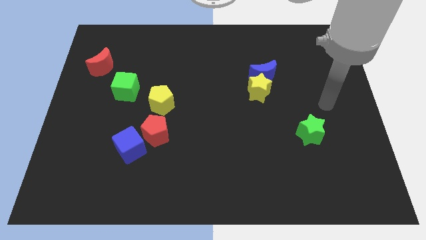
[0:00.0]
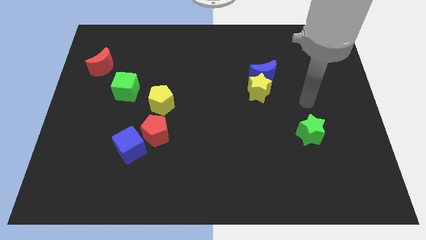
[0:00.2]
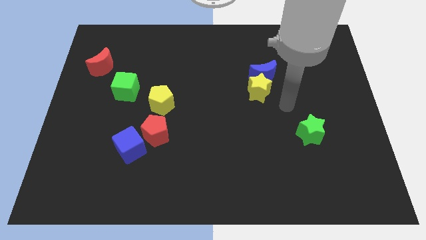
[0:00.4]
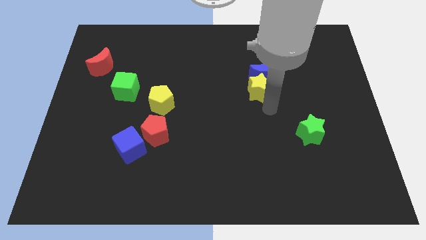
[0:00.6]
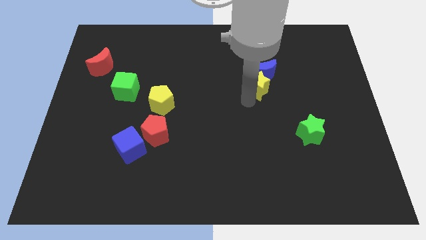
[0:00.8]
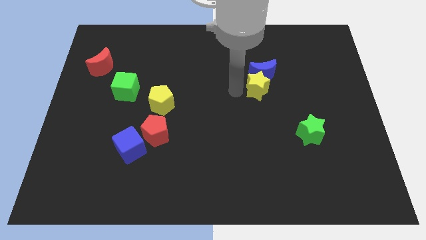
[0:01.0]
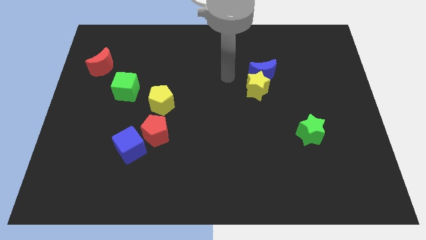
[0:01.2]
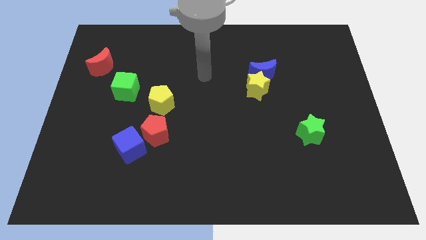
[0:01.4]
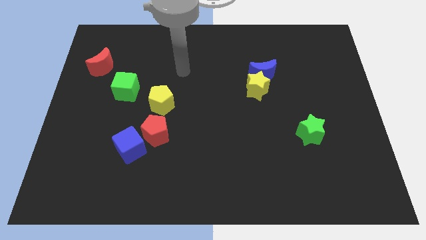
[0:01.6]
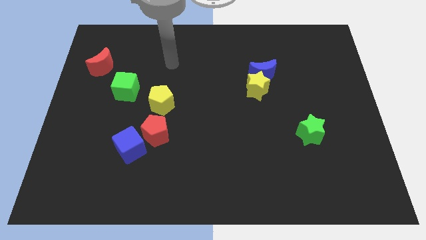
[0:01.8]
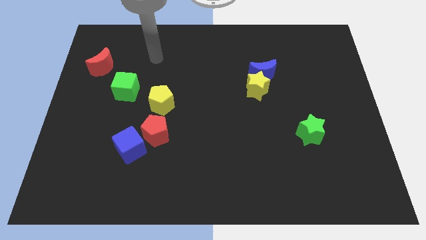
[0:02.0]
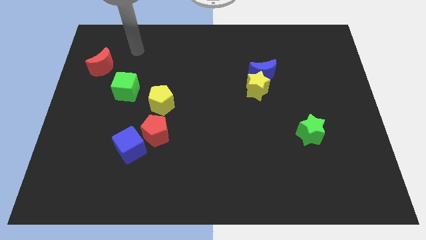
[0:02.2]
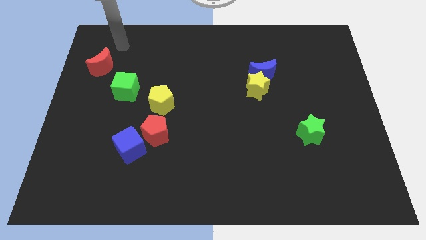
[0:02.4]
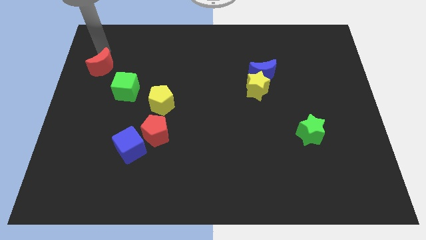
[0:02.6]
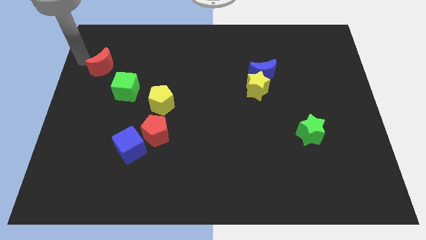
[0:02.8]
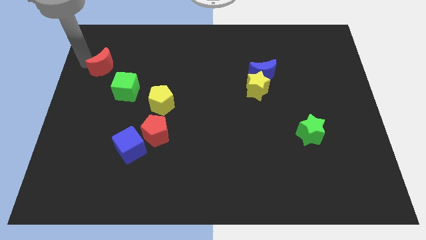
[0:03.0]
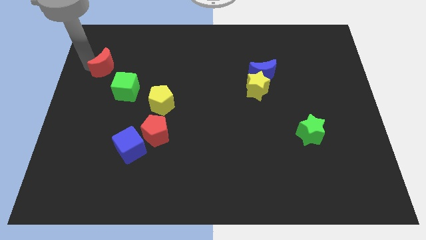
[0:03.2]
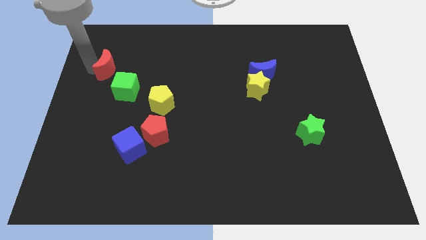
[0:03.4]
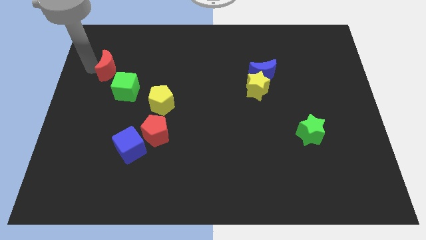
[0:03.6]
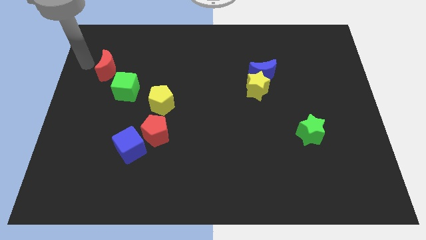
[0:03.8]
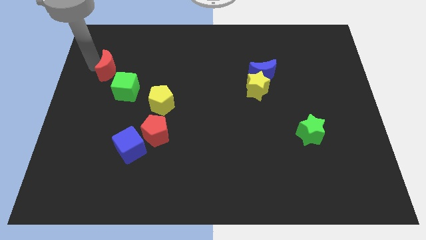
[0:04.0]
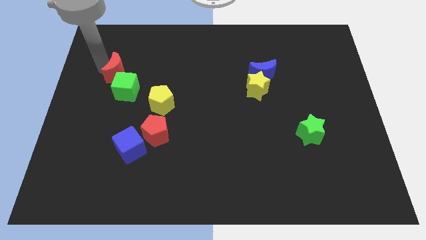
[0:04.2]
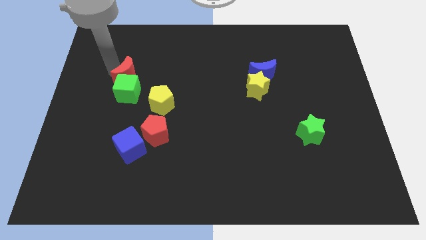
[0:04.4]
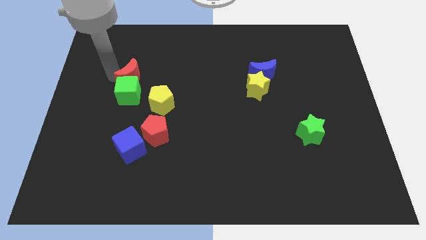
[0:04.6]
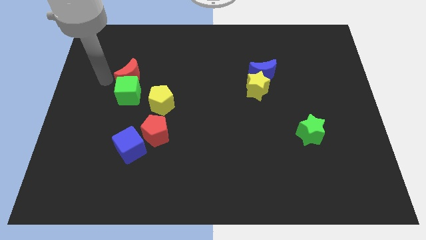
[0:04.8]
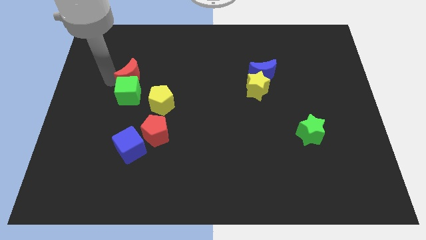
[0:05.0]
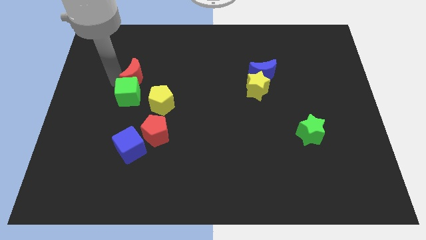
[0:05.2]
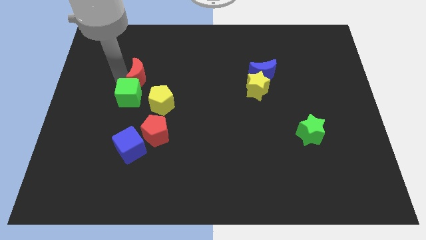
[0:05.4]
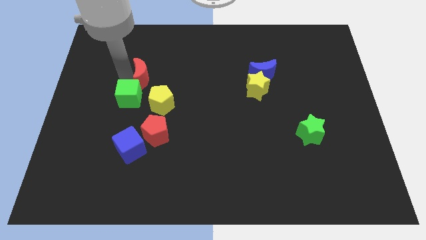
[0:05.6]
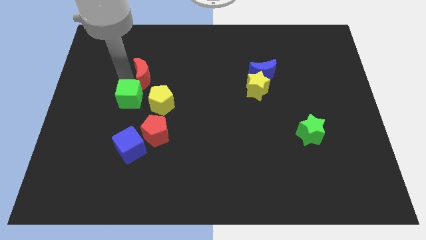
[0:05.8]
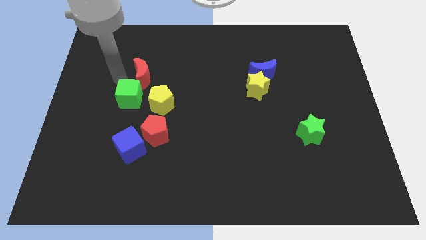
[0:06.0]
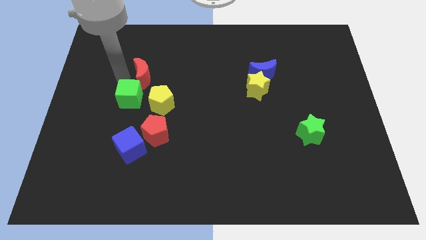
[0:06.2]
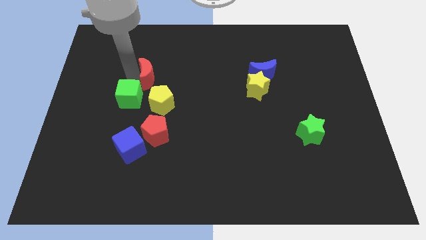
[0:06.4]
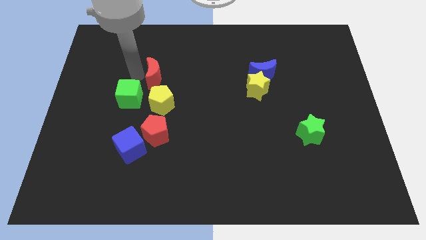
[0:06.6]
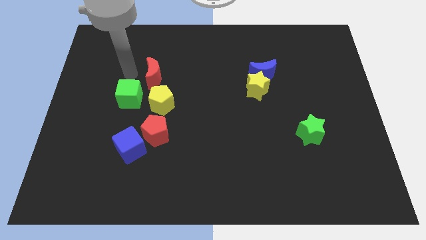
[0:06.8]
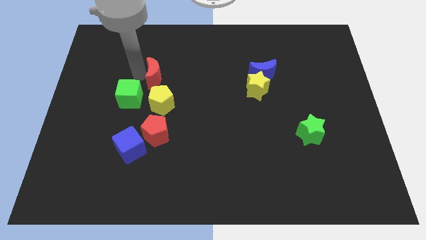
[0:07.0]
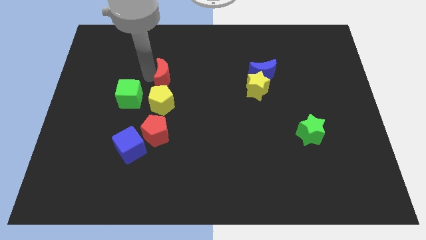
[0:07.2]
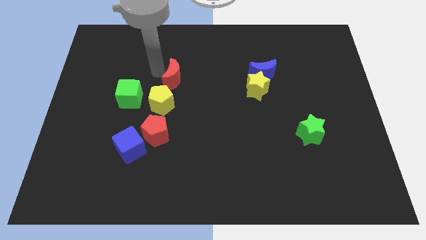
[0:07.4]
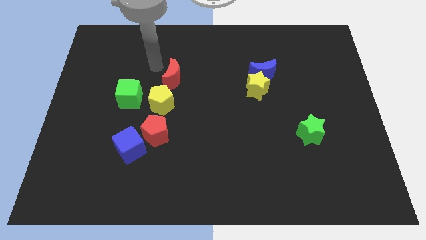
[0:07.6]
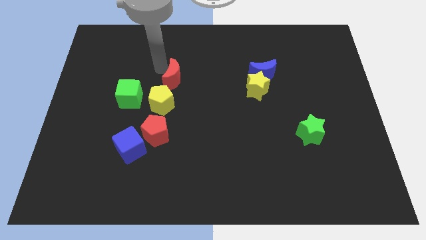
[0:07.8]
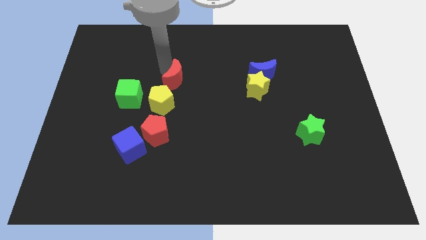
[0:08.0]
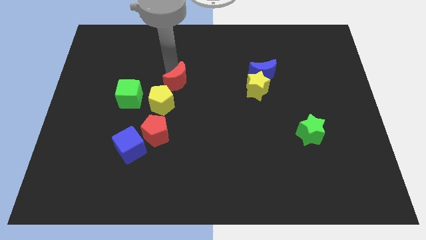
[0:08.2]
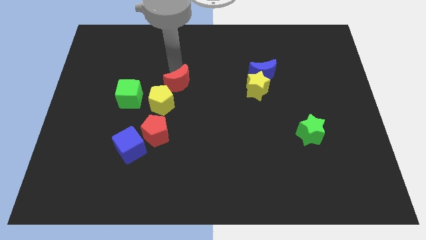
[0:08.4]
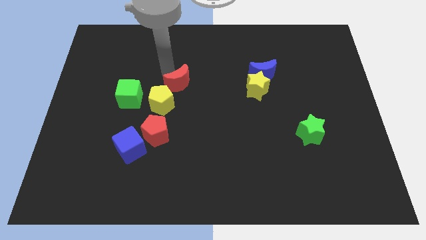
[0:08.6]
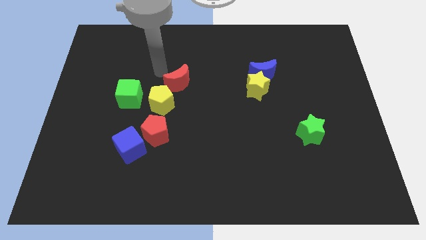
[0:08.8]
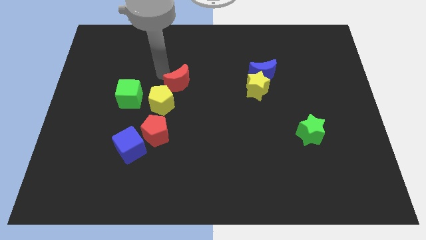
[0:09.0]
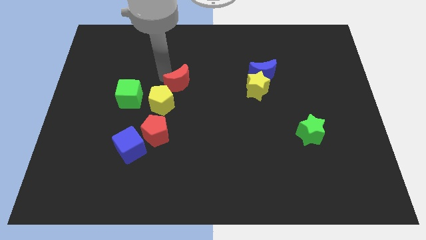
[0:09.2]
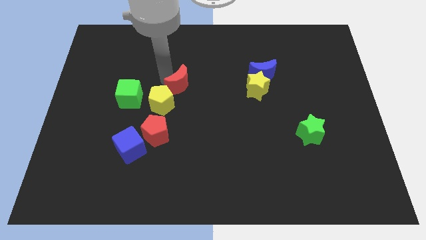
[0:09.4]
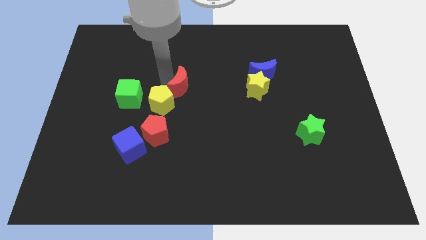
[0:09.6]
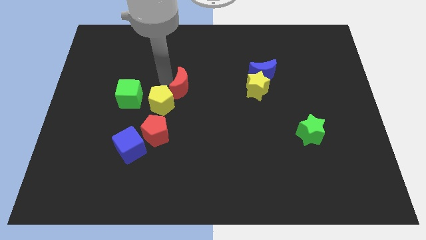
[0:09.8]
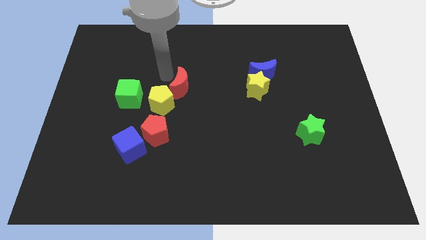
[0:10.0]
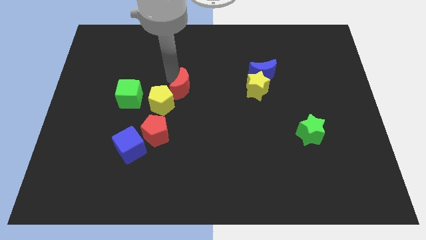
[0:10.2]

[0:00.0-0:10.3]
move the red moon just right of the yellow pentagon

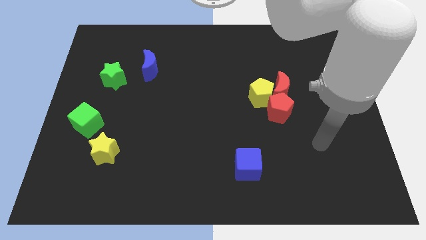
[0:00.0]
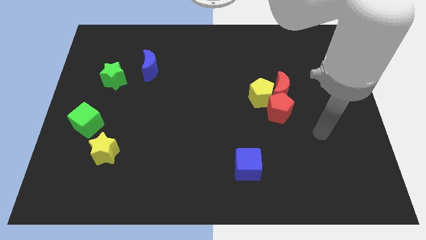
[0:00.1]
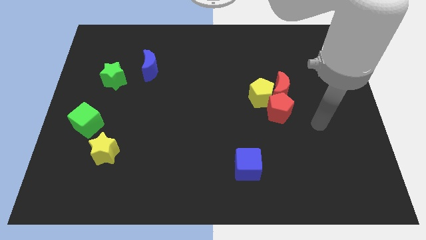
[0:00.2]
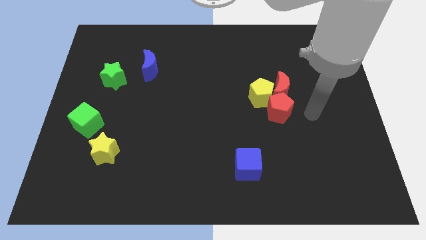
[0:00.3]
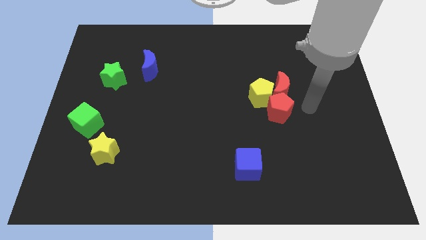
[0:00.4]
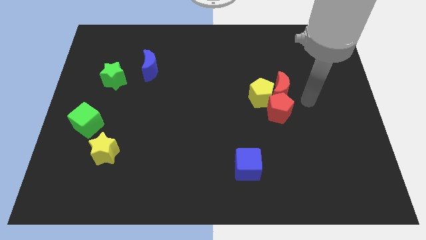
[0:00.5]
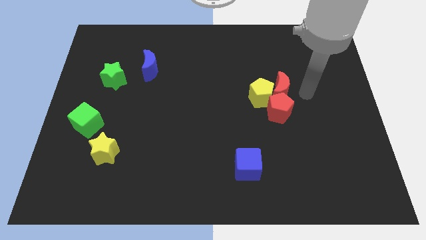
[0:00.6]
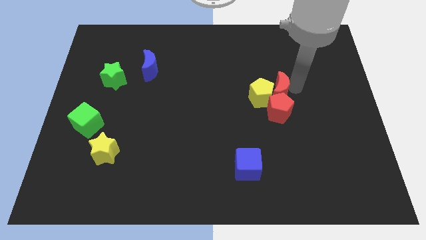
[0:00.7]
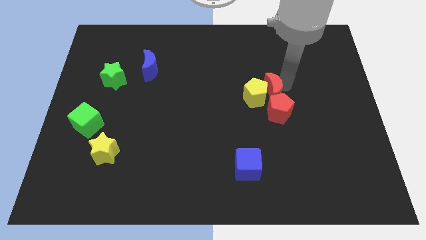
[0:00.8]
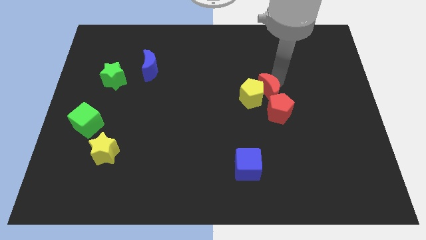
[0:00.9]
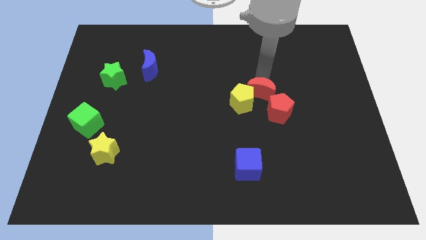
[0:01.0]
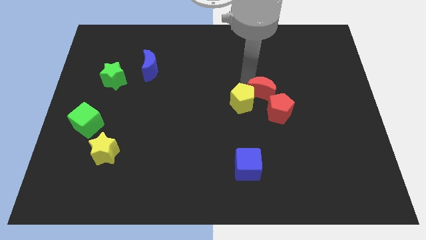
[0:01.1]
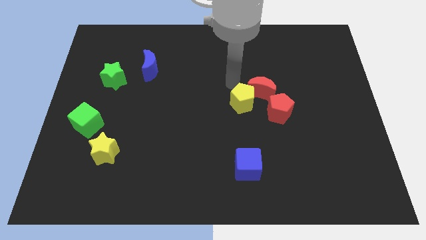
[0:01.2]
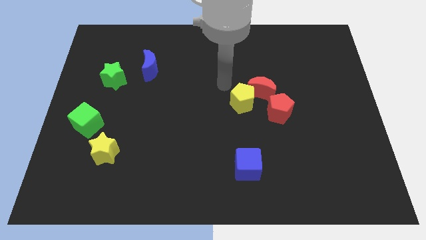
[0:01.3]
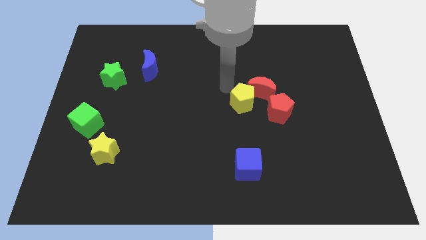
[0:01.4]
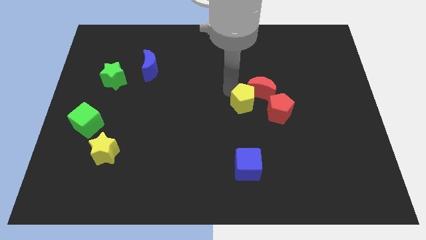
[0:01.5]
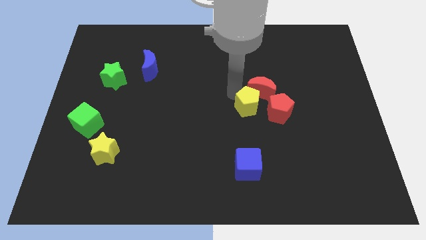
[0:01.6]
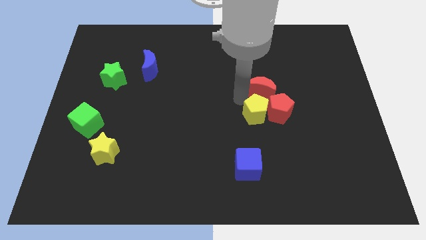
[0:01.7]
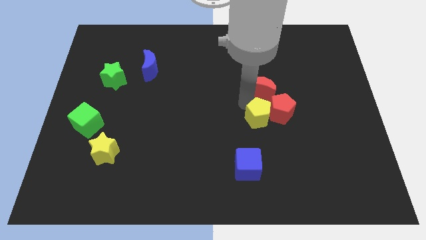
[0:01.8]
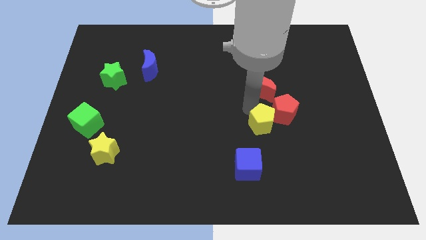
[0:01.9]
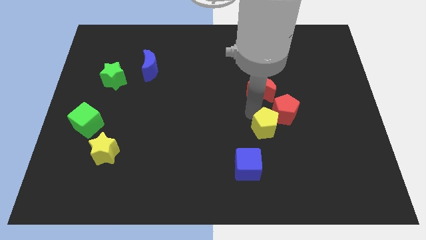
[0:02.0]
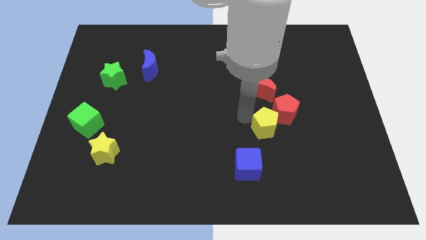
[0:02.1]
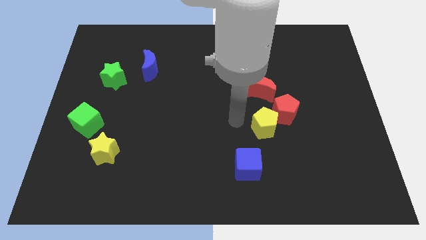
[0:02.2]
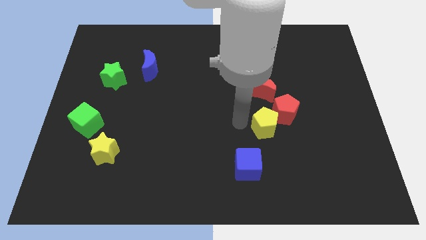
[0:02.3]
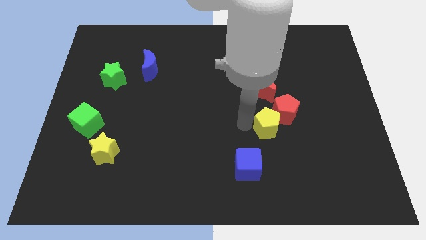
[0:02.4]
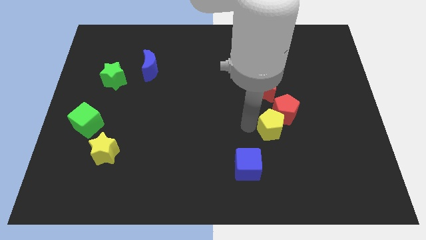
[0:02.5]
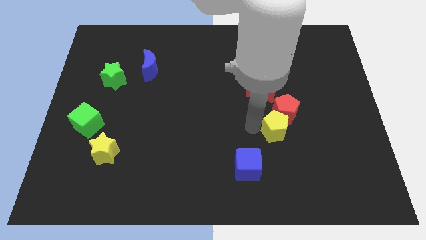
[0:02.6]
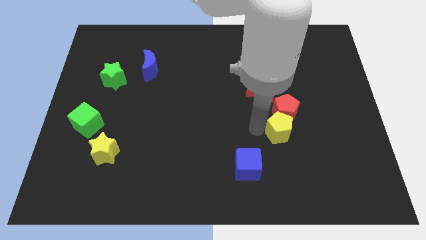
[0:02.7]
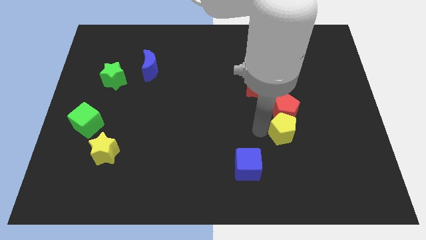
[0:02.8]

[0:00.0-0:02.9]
put the yellow pentagon diagonally down and to the right of the red pentagon
